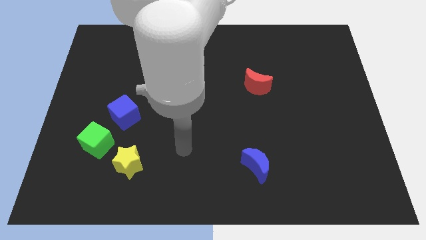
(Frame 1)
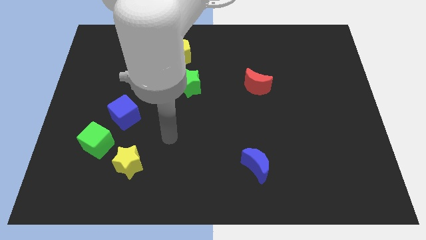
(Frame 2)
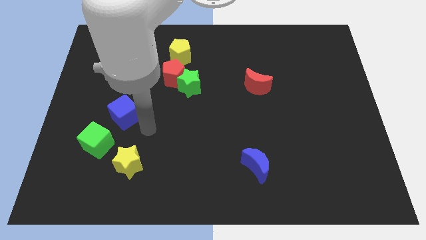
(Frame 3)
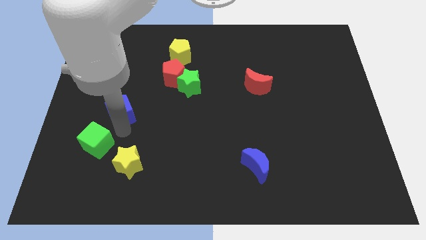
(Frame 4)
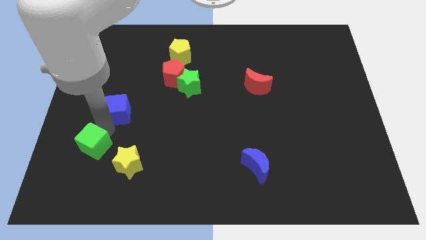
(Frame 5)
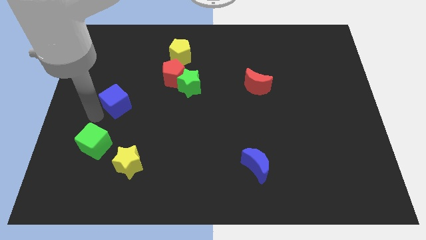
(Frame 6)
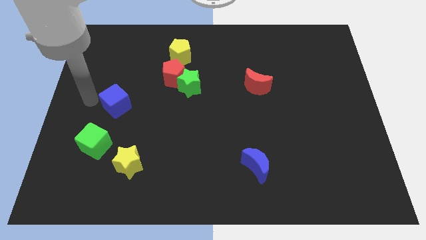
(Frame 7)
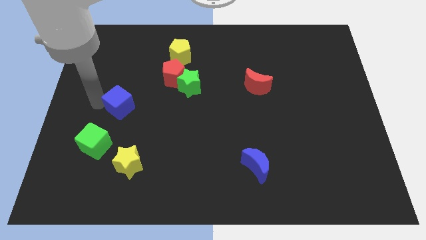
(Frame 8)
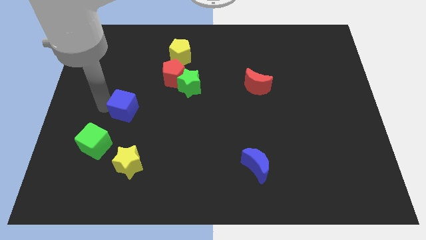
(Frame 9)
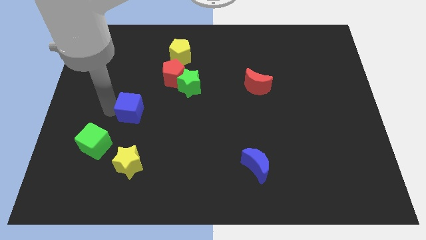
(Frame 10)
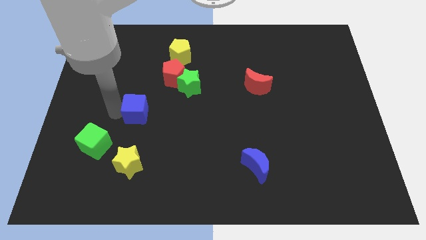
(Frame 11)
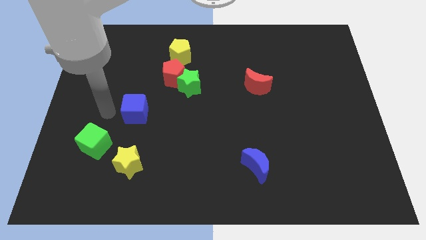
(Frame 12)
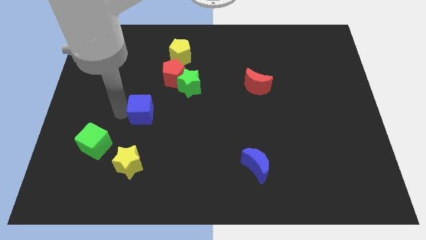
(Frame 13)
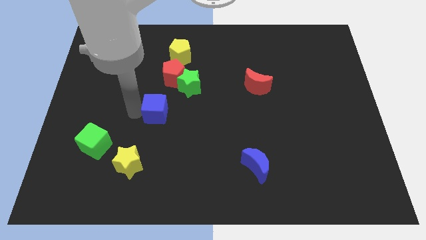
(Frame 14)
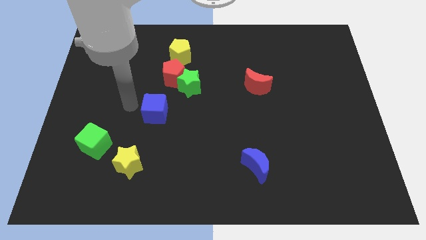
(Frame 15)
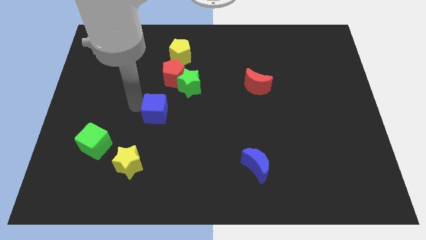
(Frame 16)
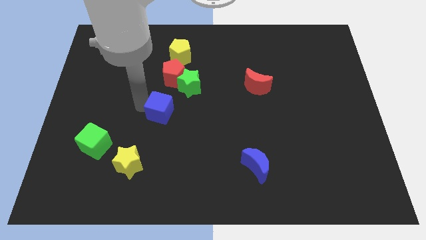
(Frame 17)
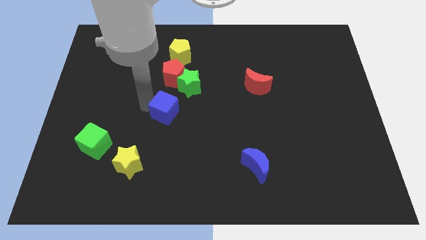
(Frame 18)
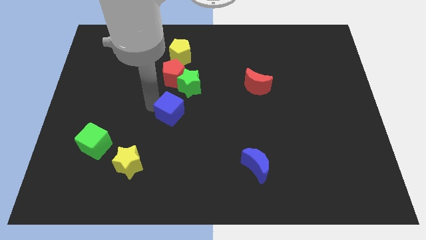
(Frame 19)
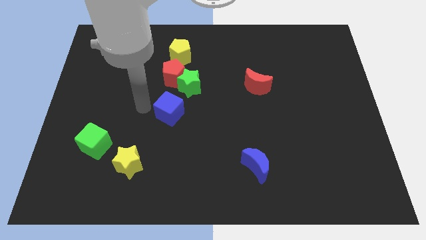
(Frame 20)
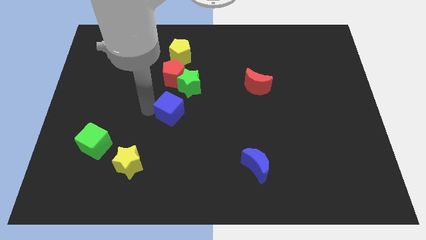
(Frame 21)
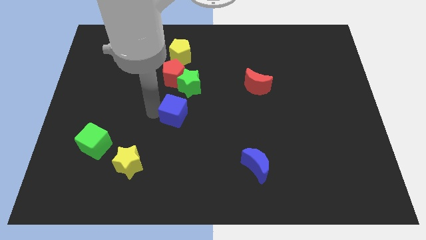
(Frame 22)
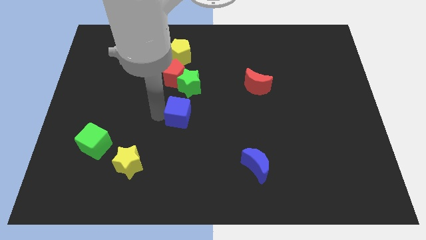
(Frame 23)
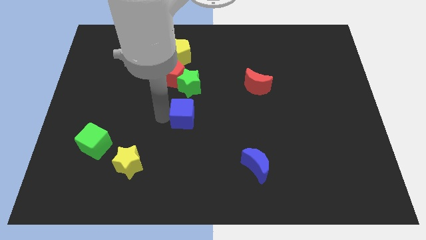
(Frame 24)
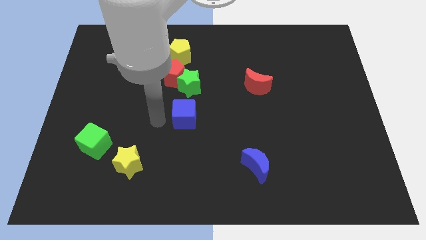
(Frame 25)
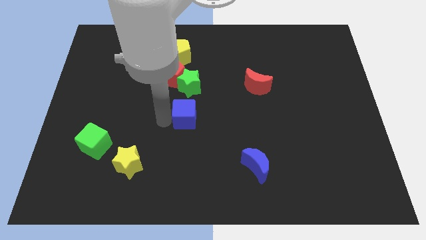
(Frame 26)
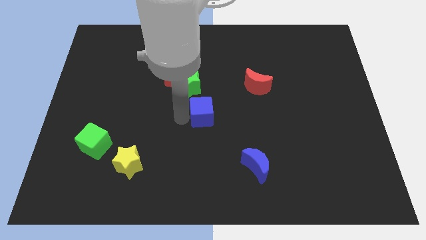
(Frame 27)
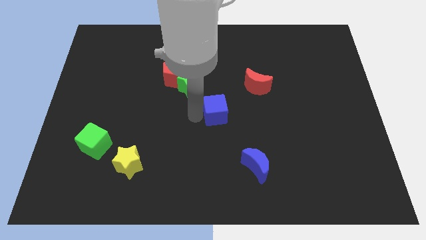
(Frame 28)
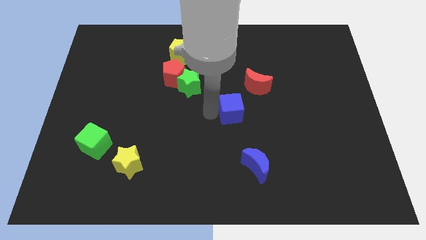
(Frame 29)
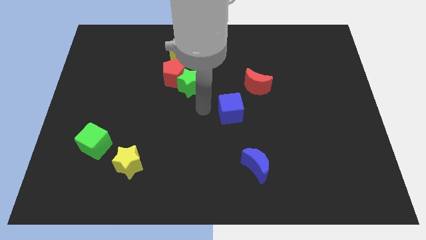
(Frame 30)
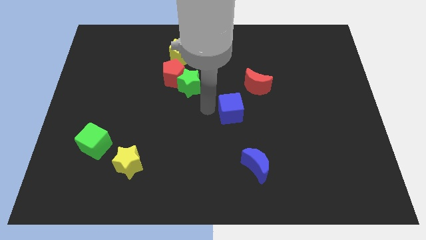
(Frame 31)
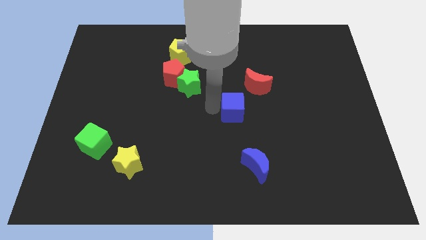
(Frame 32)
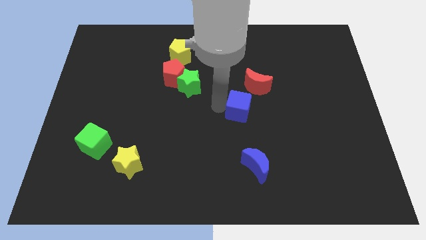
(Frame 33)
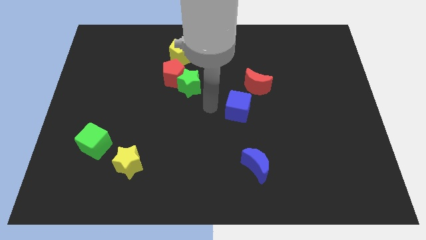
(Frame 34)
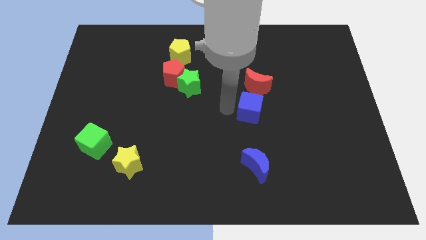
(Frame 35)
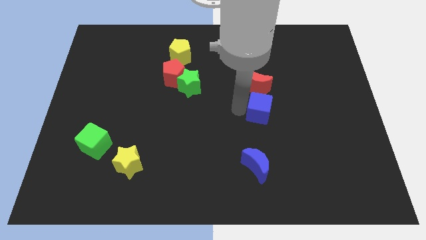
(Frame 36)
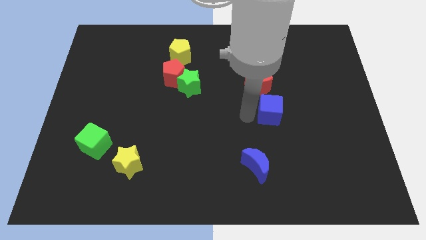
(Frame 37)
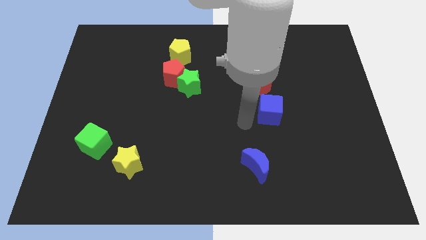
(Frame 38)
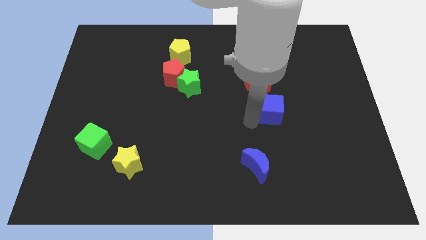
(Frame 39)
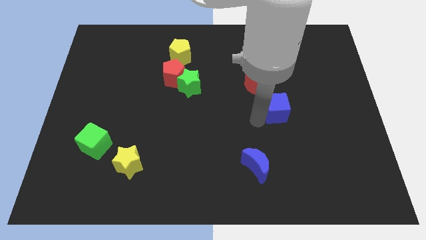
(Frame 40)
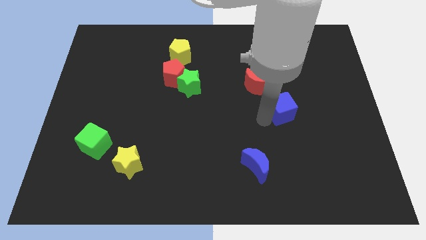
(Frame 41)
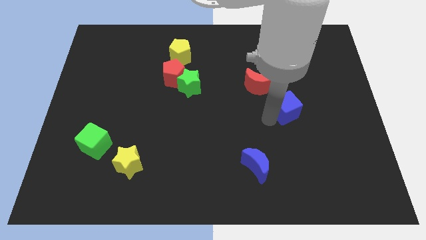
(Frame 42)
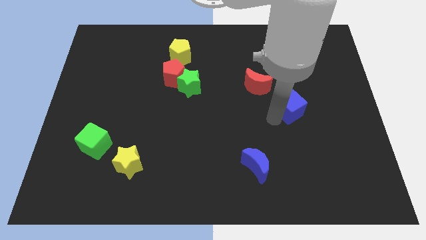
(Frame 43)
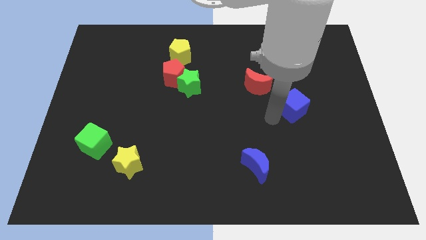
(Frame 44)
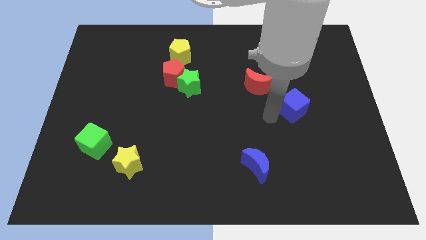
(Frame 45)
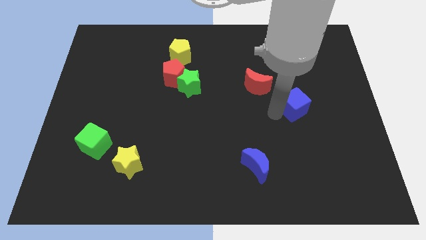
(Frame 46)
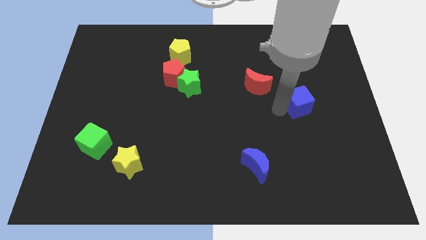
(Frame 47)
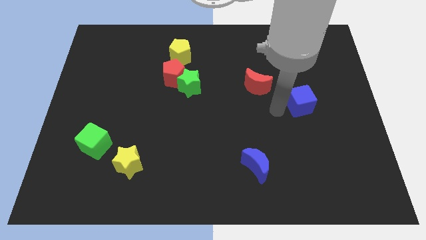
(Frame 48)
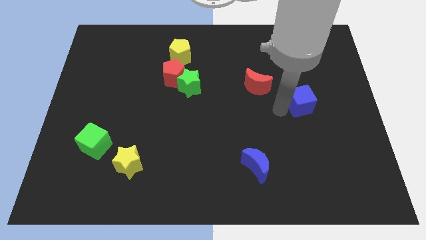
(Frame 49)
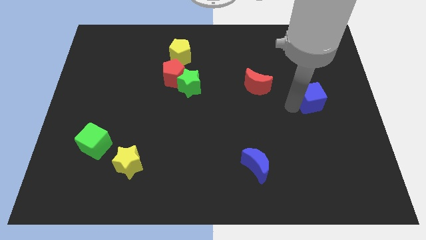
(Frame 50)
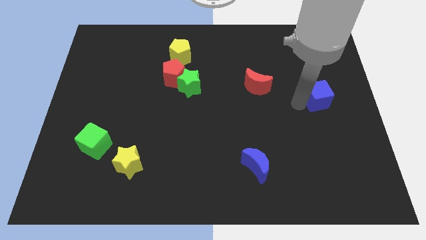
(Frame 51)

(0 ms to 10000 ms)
put the blue cube to the right side

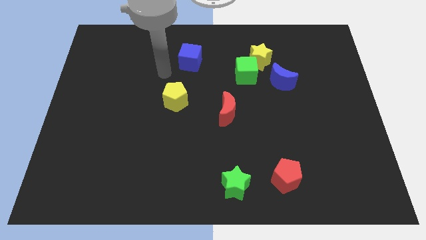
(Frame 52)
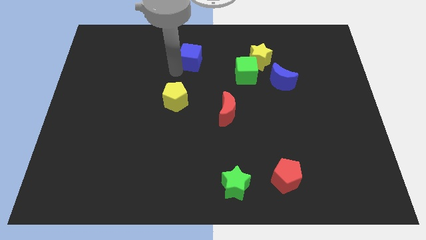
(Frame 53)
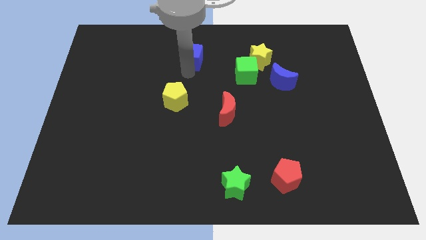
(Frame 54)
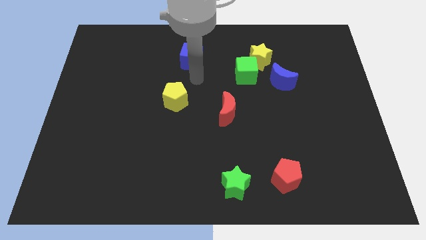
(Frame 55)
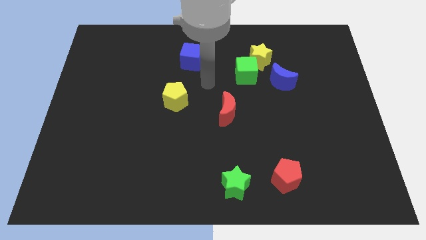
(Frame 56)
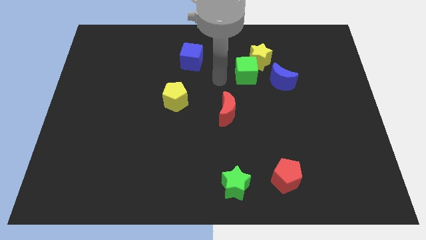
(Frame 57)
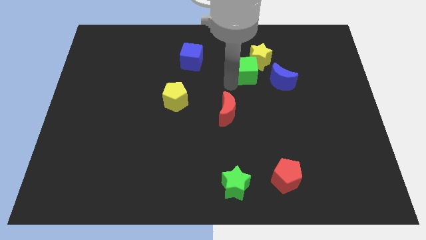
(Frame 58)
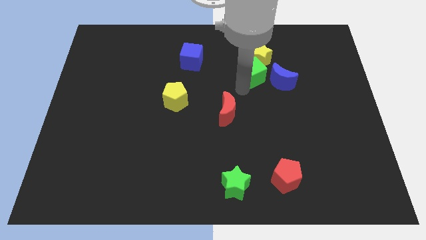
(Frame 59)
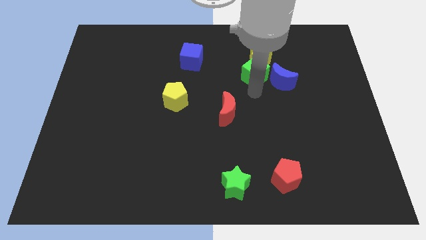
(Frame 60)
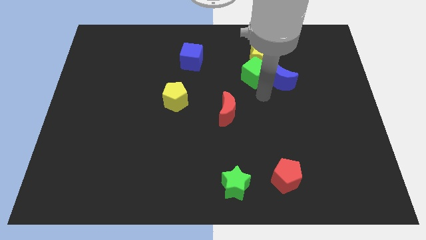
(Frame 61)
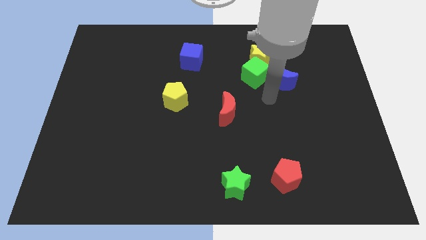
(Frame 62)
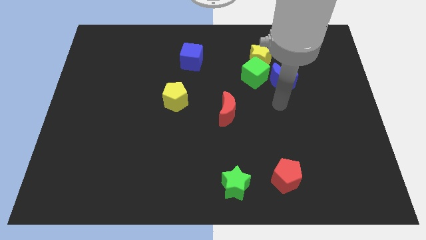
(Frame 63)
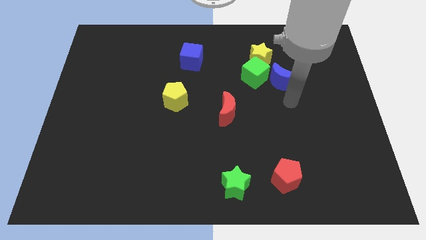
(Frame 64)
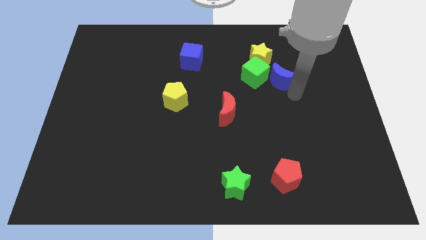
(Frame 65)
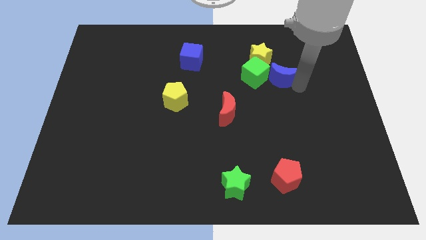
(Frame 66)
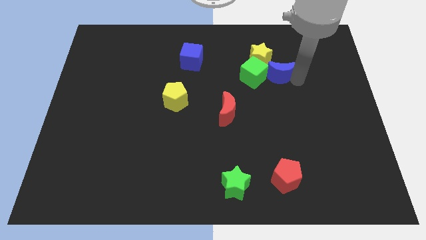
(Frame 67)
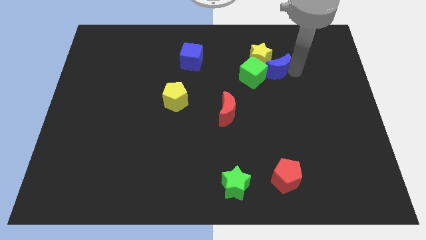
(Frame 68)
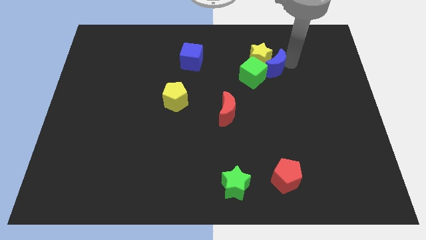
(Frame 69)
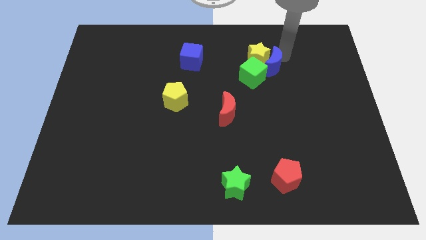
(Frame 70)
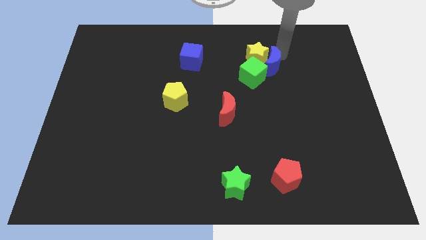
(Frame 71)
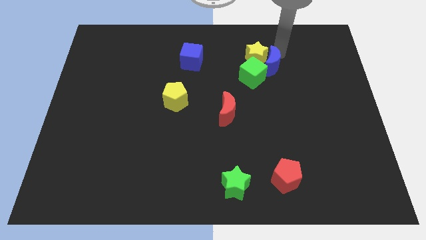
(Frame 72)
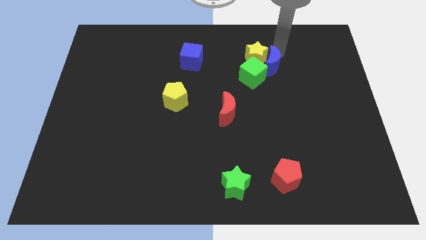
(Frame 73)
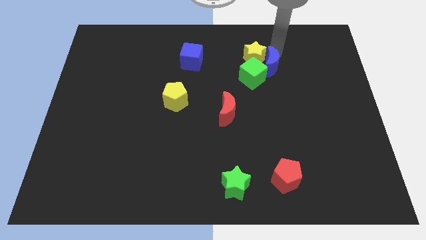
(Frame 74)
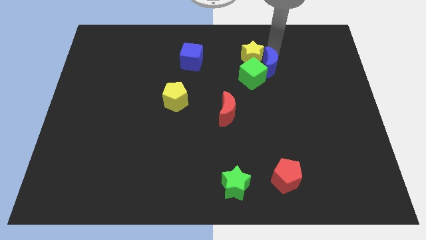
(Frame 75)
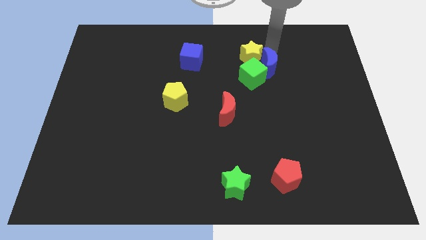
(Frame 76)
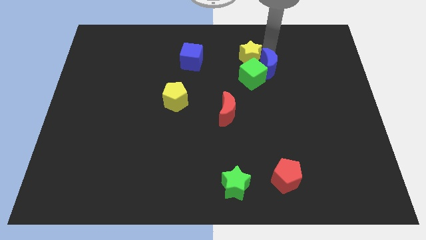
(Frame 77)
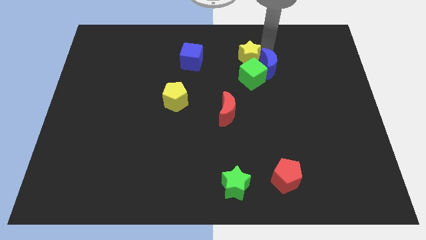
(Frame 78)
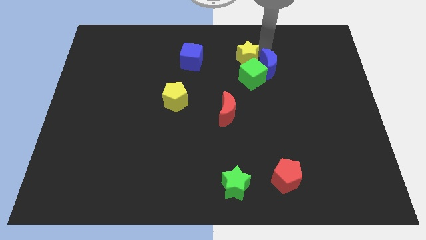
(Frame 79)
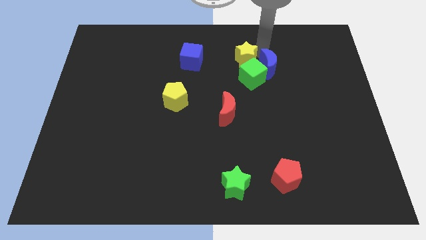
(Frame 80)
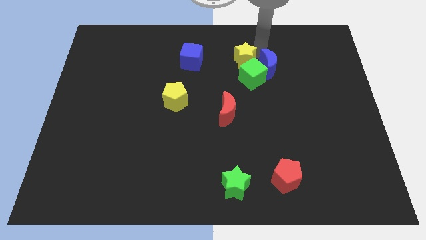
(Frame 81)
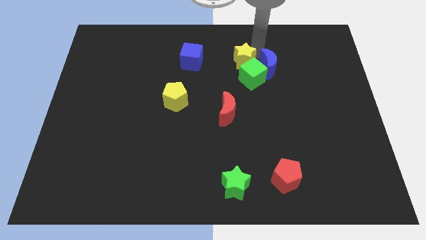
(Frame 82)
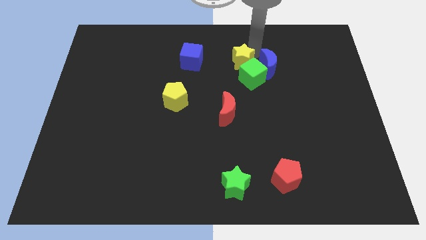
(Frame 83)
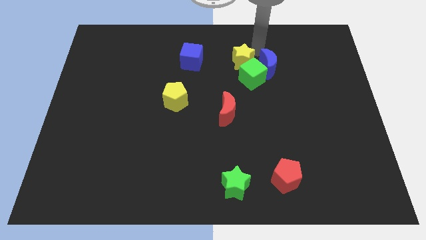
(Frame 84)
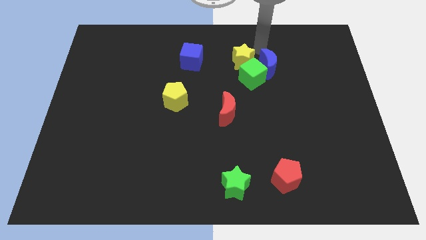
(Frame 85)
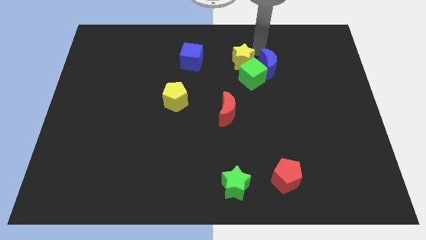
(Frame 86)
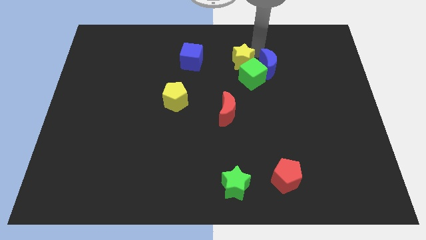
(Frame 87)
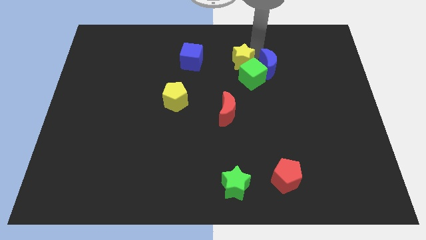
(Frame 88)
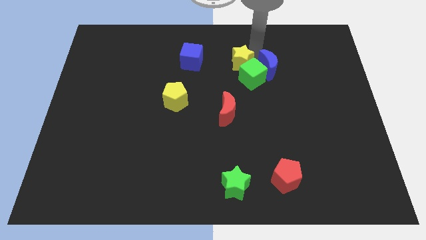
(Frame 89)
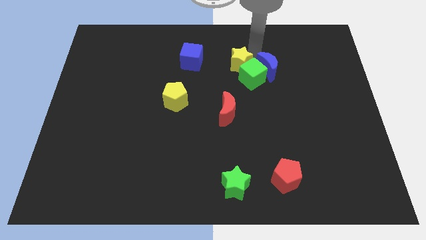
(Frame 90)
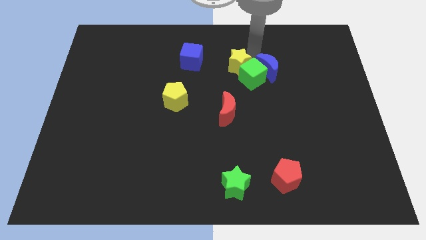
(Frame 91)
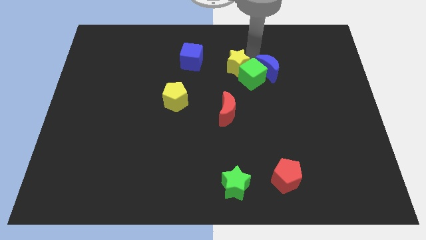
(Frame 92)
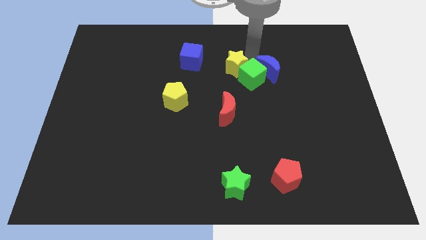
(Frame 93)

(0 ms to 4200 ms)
push the yellow star to the center
